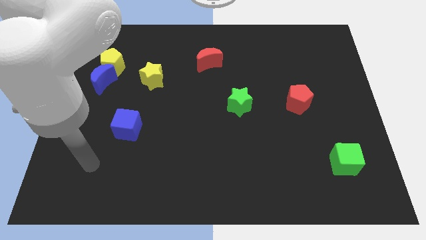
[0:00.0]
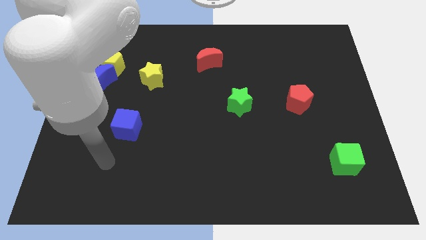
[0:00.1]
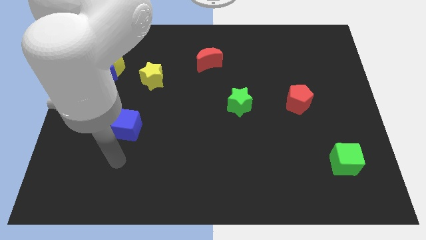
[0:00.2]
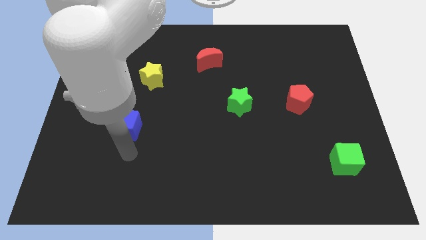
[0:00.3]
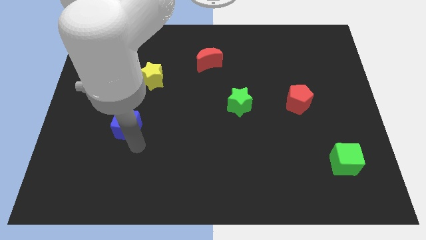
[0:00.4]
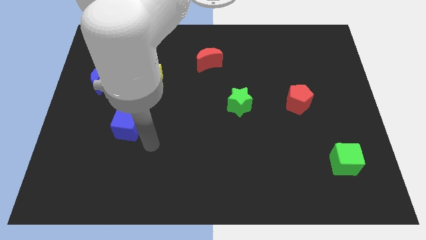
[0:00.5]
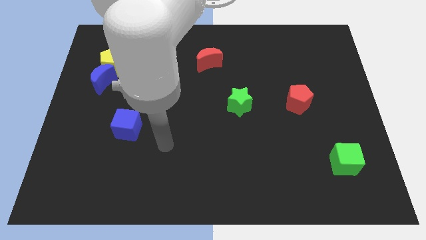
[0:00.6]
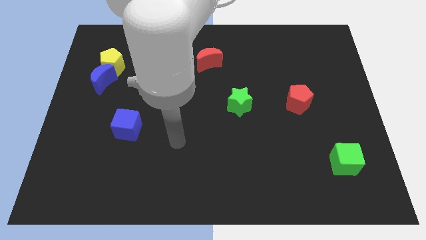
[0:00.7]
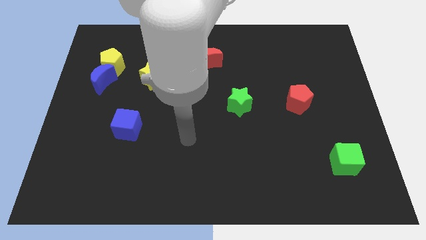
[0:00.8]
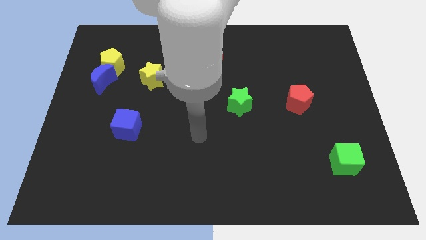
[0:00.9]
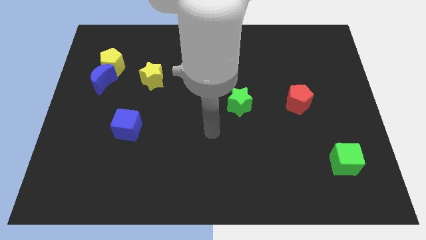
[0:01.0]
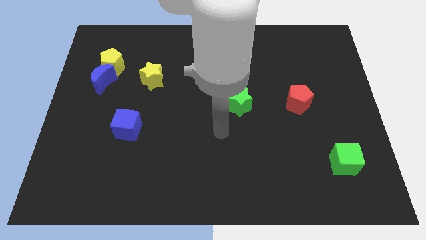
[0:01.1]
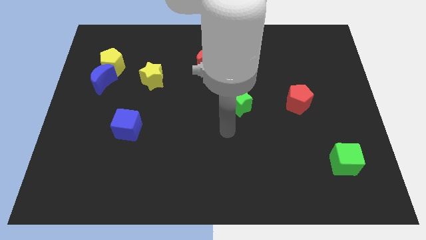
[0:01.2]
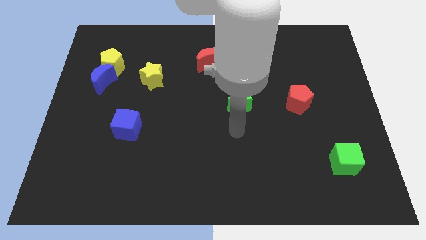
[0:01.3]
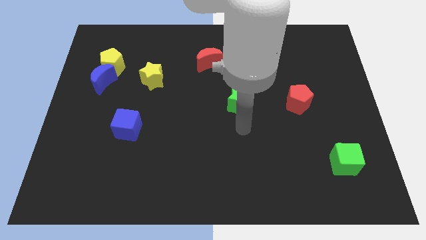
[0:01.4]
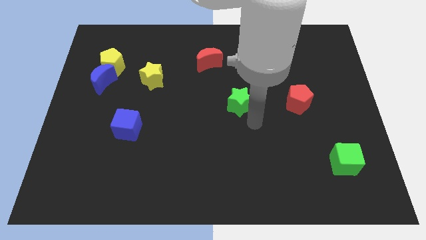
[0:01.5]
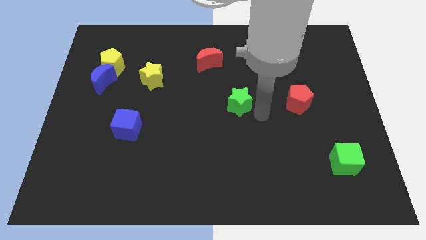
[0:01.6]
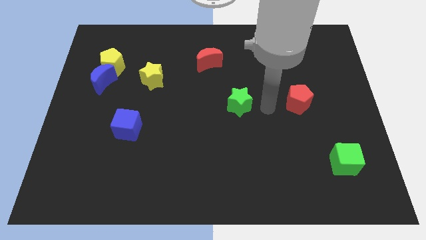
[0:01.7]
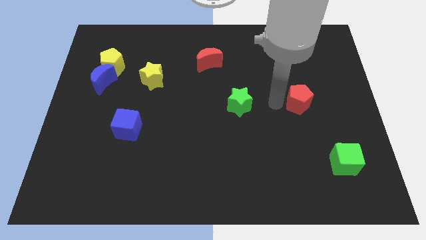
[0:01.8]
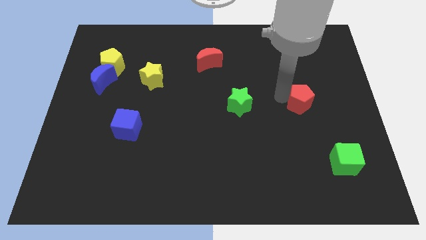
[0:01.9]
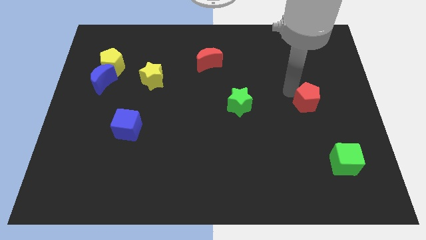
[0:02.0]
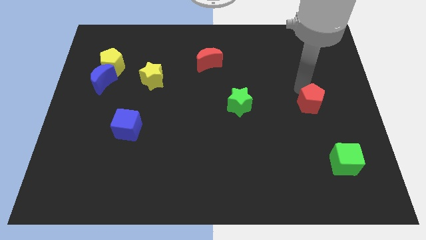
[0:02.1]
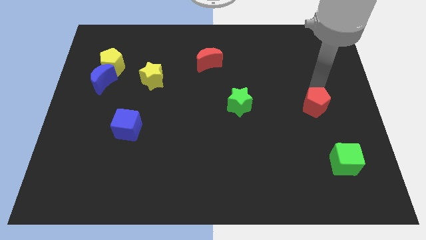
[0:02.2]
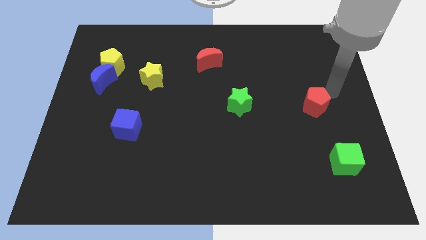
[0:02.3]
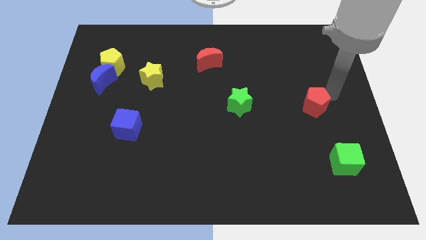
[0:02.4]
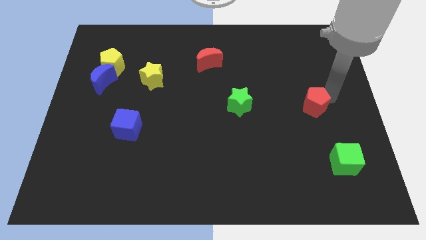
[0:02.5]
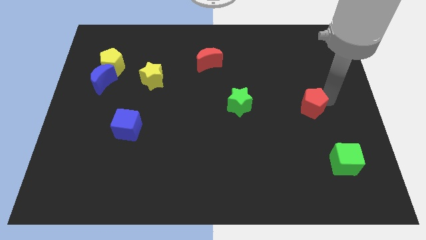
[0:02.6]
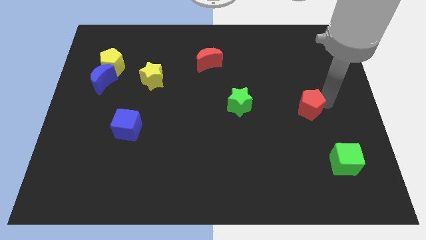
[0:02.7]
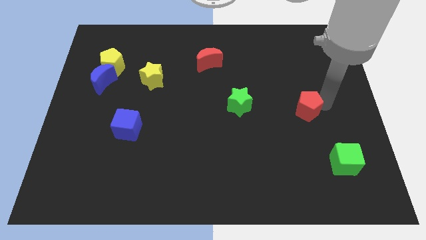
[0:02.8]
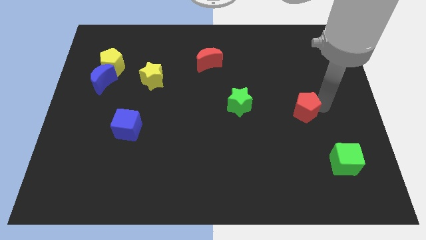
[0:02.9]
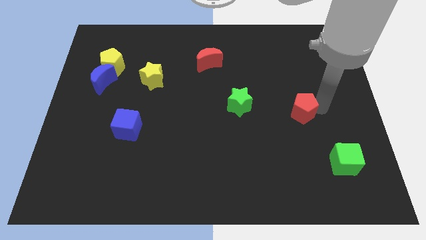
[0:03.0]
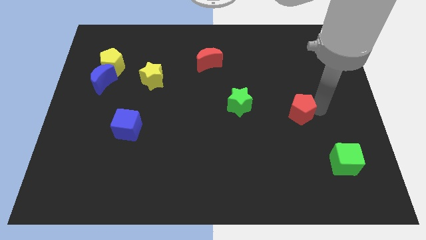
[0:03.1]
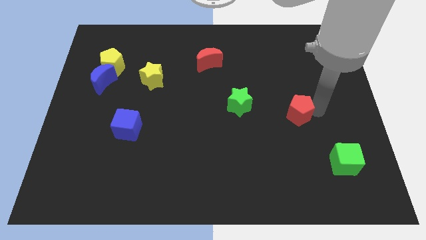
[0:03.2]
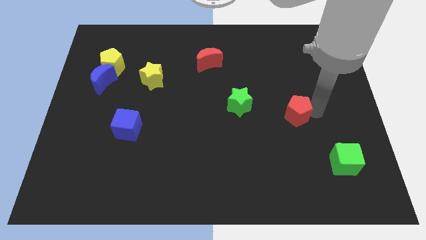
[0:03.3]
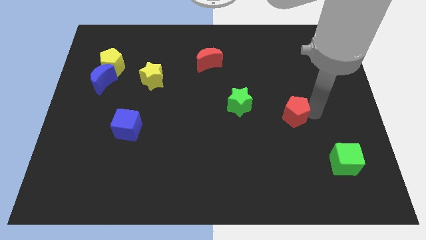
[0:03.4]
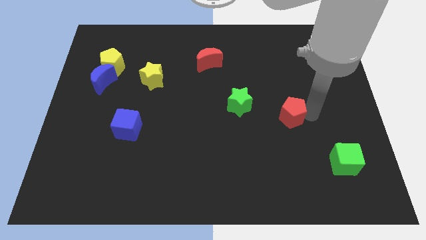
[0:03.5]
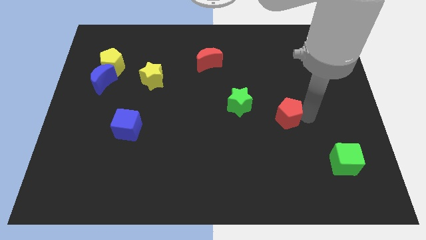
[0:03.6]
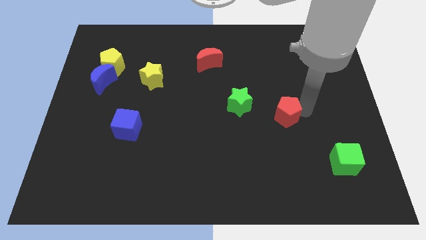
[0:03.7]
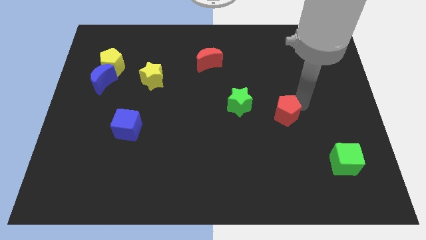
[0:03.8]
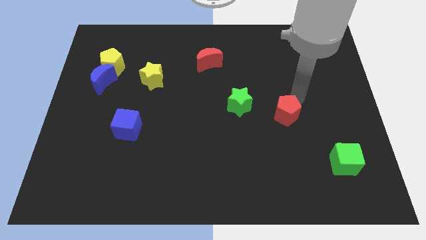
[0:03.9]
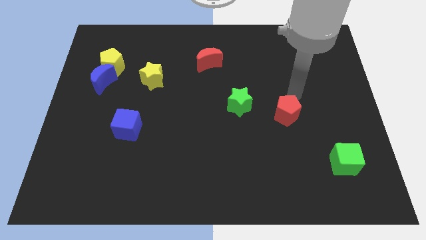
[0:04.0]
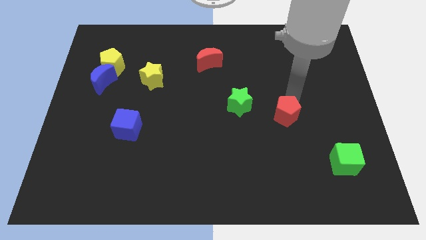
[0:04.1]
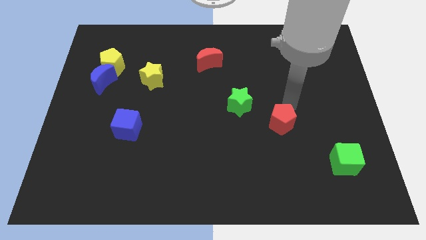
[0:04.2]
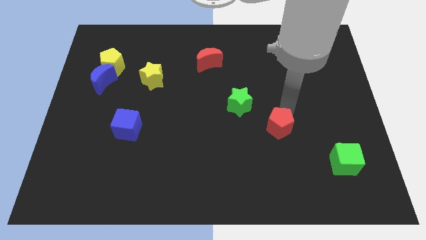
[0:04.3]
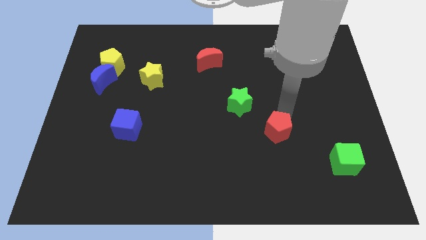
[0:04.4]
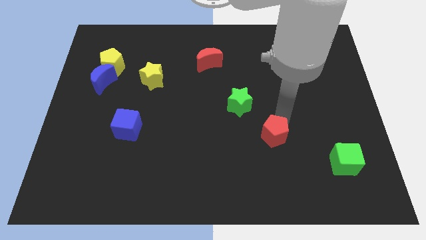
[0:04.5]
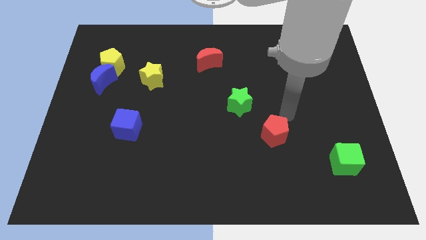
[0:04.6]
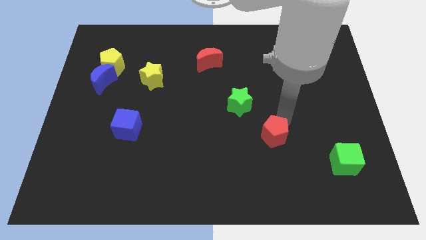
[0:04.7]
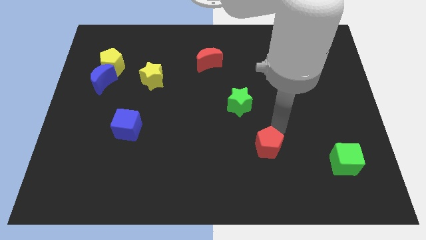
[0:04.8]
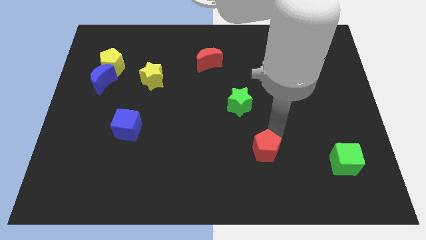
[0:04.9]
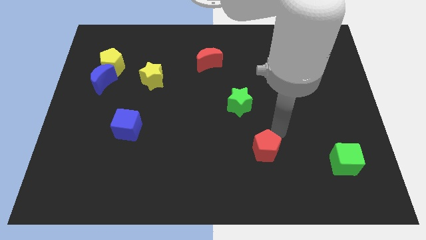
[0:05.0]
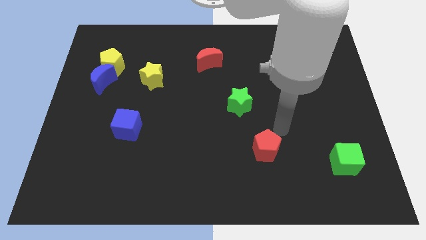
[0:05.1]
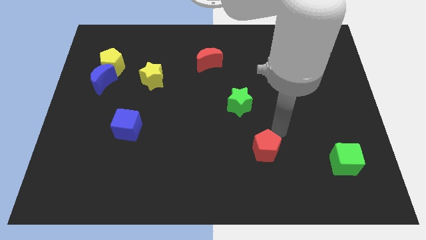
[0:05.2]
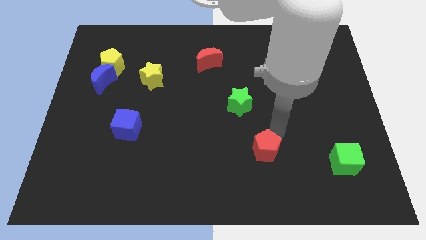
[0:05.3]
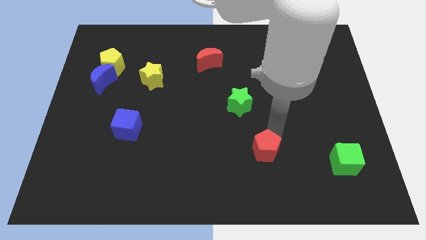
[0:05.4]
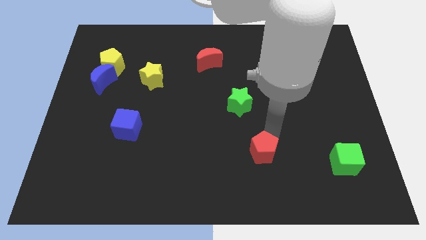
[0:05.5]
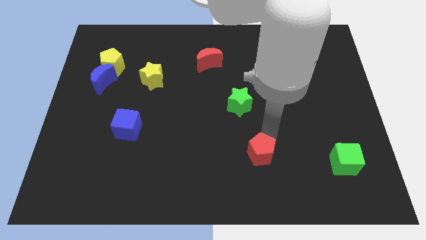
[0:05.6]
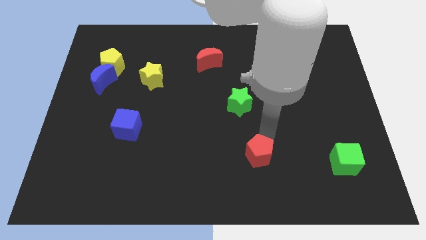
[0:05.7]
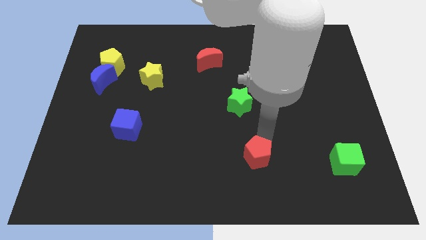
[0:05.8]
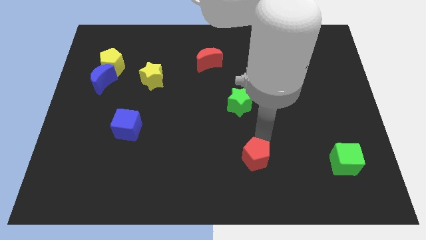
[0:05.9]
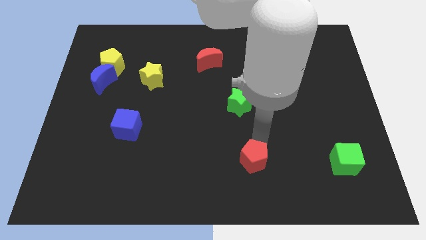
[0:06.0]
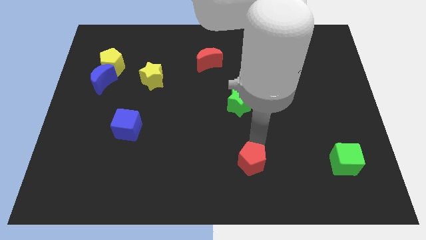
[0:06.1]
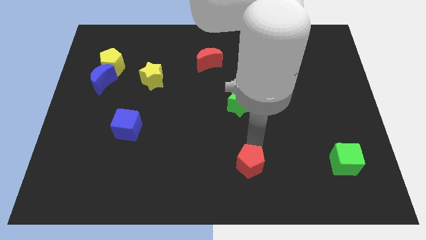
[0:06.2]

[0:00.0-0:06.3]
push the red pentagon to the bottom

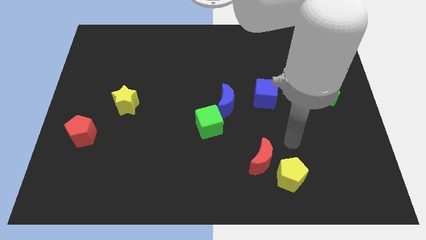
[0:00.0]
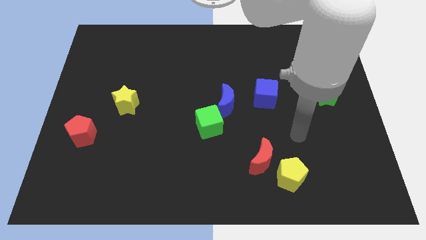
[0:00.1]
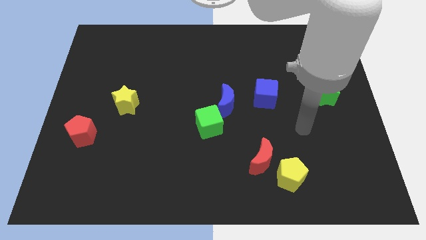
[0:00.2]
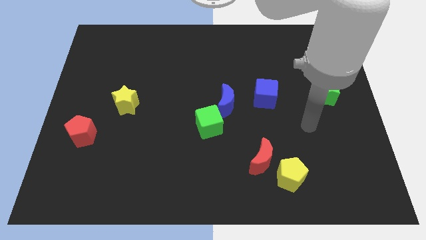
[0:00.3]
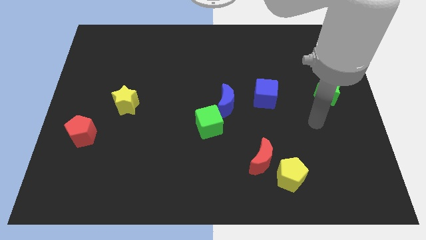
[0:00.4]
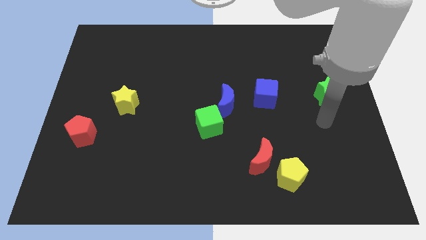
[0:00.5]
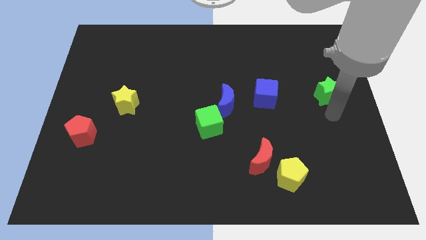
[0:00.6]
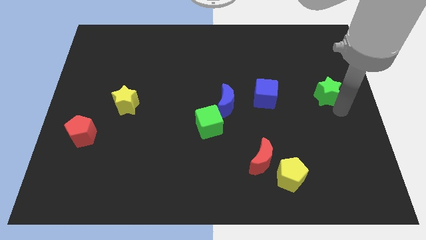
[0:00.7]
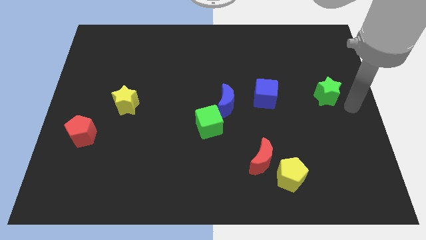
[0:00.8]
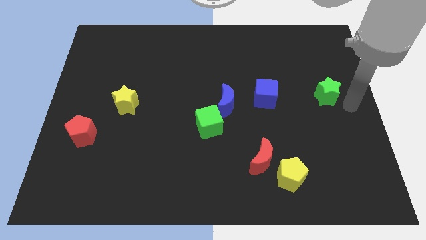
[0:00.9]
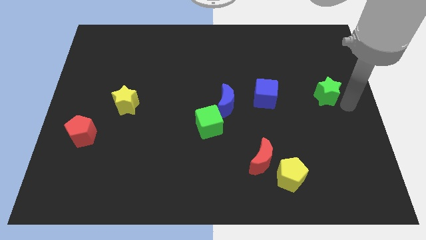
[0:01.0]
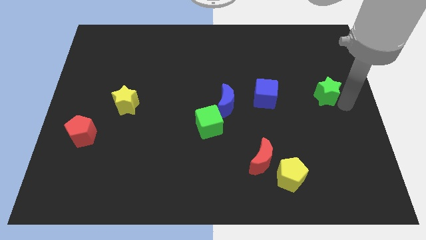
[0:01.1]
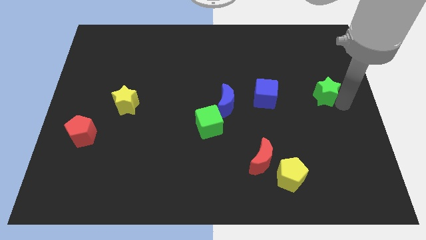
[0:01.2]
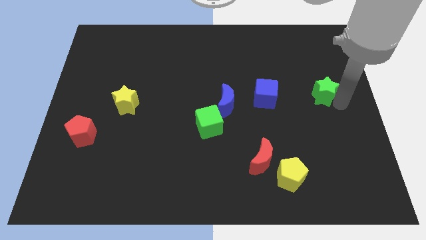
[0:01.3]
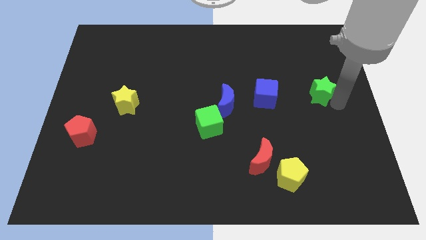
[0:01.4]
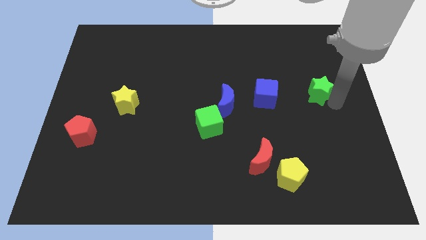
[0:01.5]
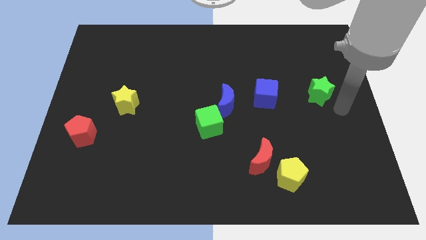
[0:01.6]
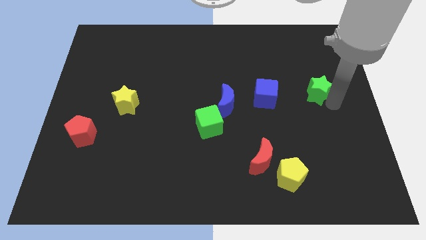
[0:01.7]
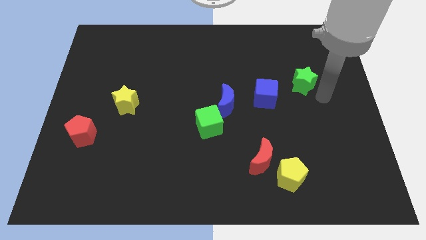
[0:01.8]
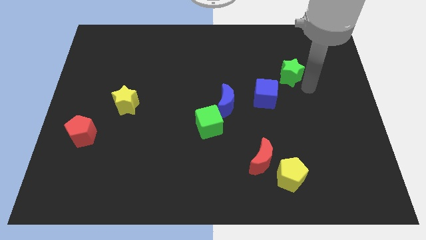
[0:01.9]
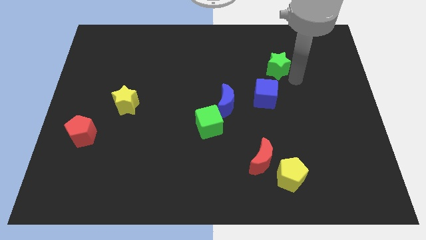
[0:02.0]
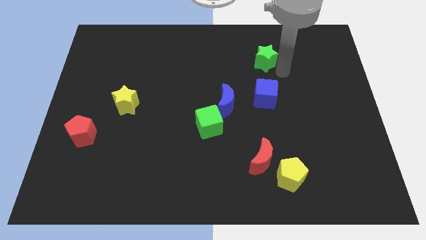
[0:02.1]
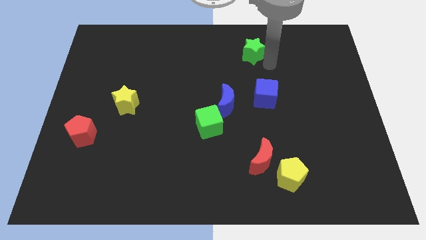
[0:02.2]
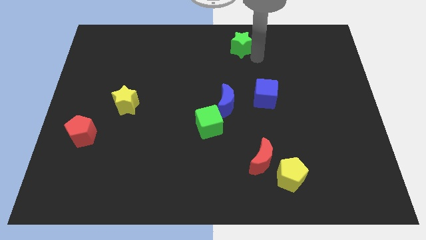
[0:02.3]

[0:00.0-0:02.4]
put the green star to the top
